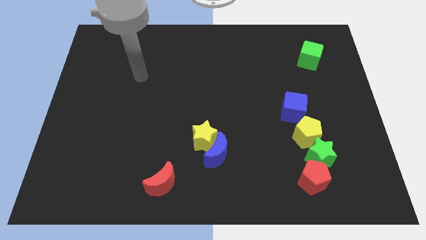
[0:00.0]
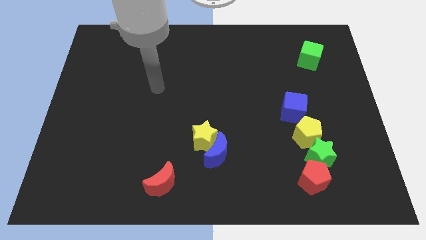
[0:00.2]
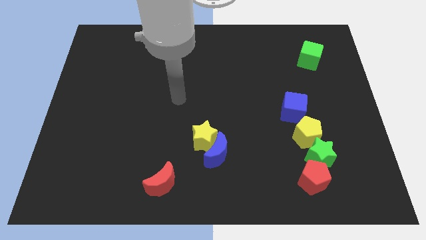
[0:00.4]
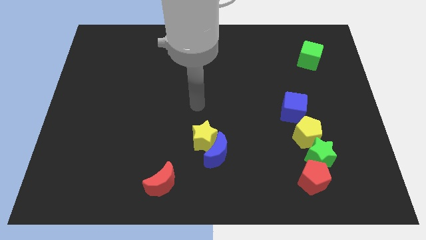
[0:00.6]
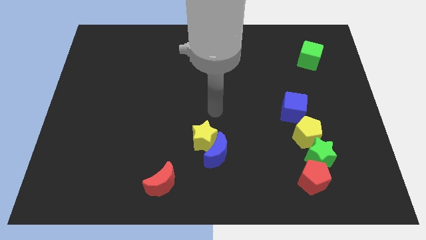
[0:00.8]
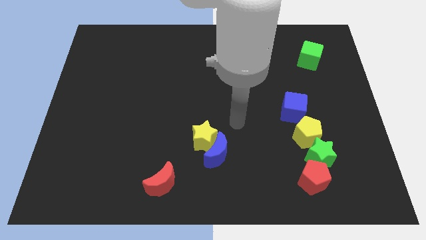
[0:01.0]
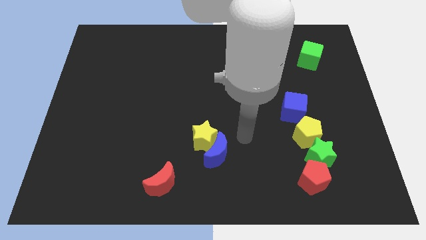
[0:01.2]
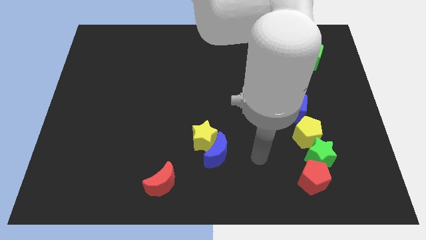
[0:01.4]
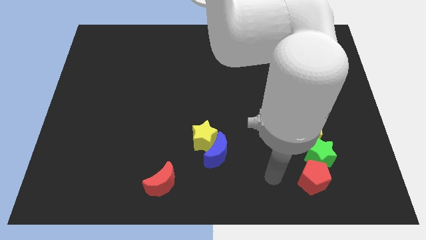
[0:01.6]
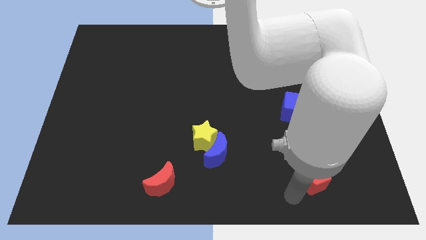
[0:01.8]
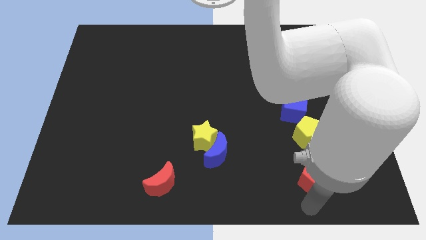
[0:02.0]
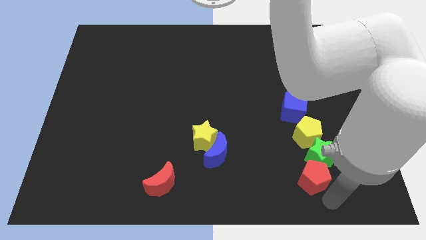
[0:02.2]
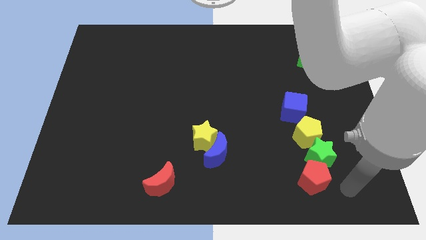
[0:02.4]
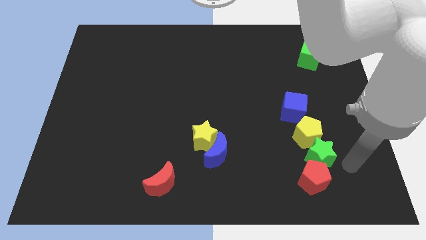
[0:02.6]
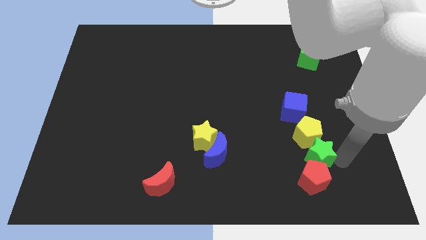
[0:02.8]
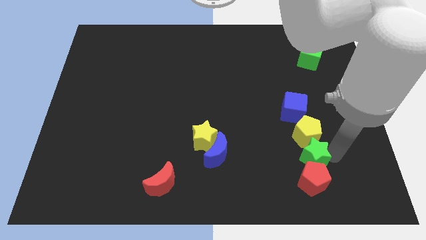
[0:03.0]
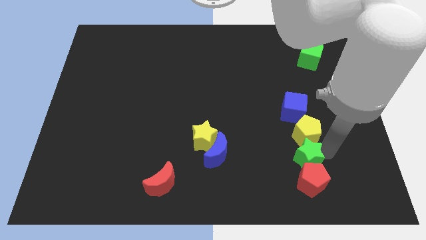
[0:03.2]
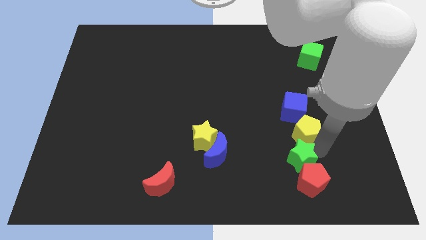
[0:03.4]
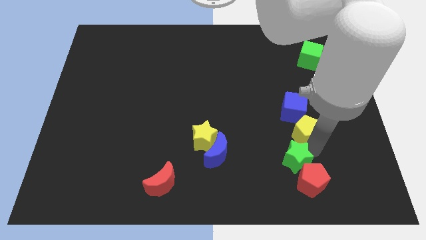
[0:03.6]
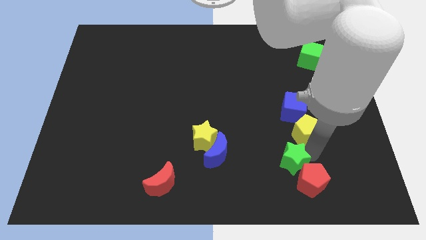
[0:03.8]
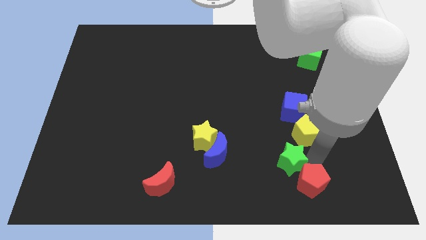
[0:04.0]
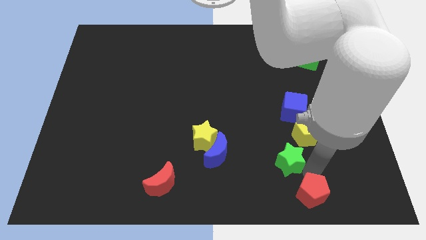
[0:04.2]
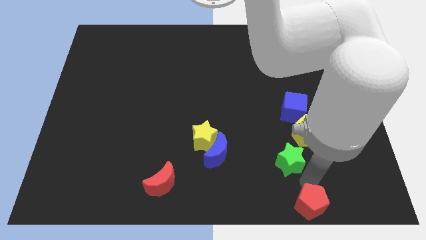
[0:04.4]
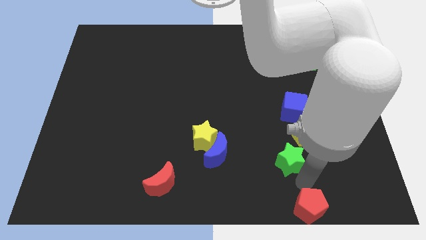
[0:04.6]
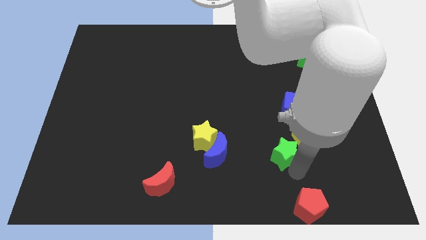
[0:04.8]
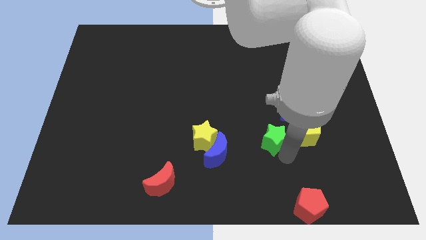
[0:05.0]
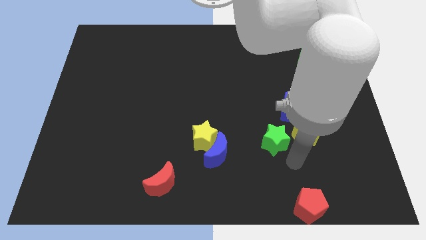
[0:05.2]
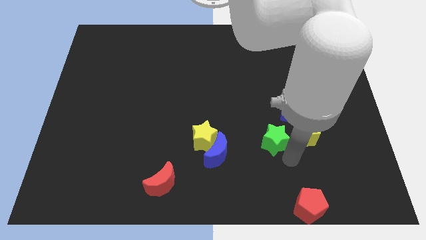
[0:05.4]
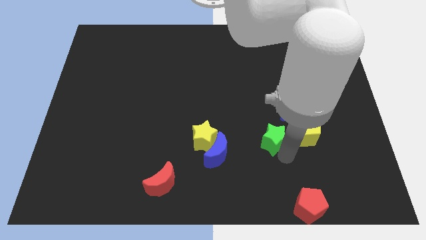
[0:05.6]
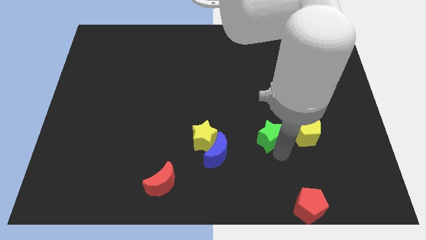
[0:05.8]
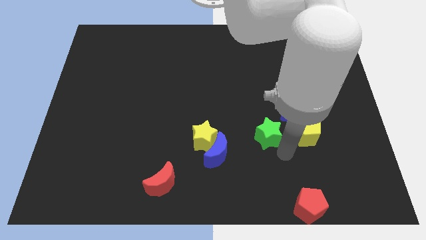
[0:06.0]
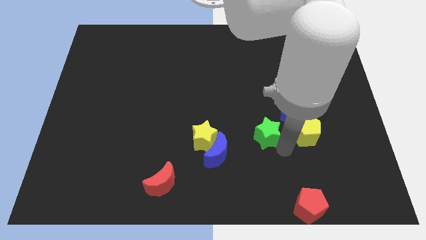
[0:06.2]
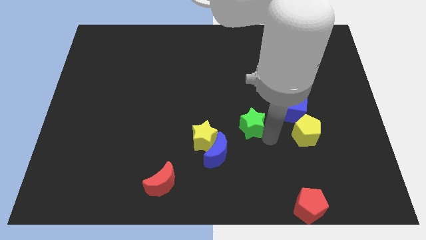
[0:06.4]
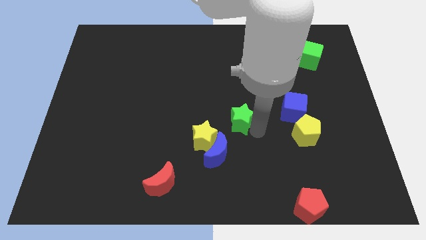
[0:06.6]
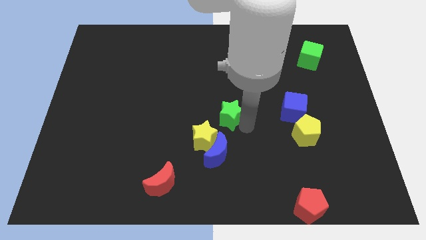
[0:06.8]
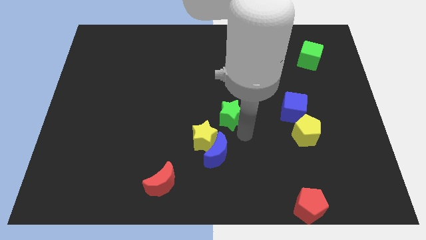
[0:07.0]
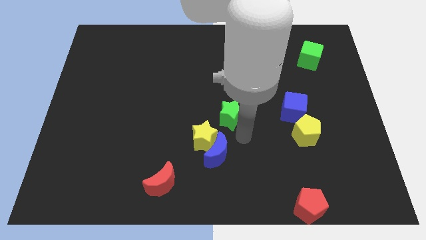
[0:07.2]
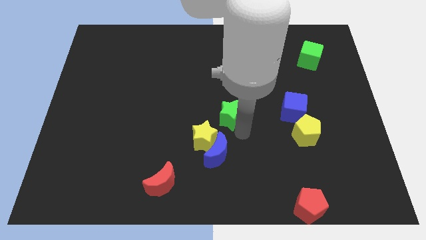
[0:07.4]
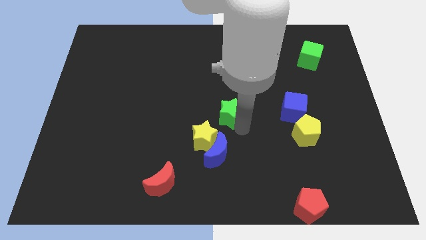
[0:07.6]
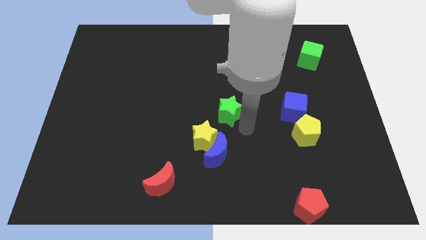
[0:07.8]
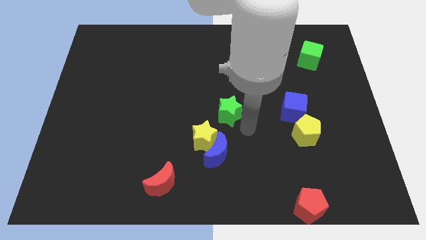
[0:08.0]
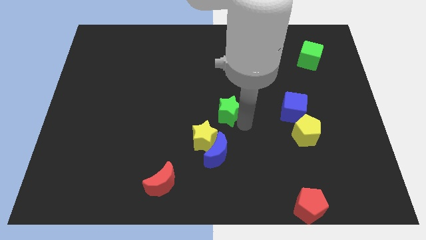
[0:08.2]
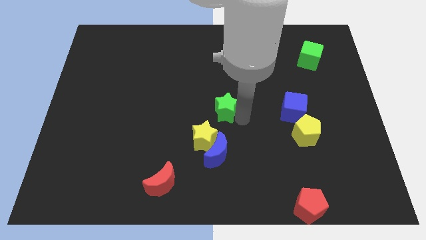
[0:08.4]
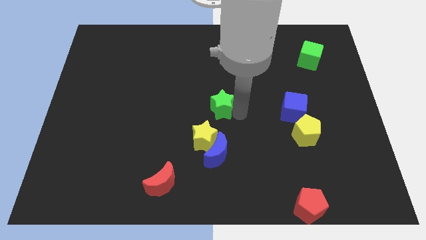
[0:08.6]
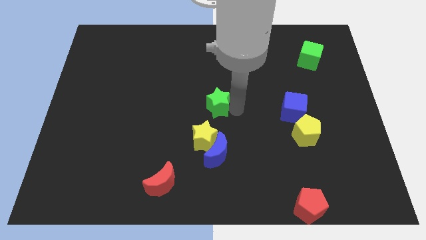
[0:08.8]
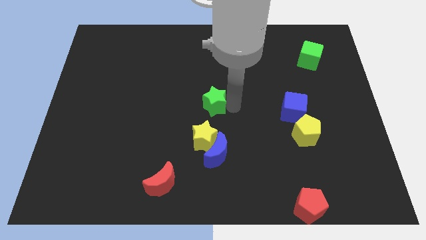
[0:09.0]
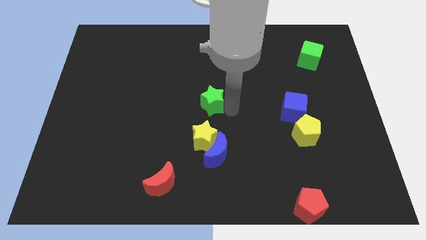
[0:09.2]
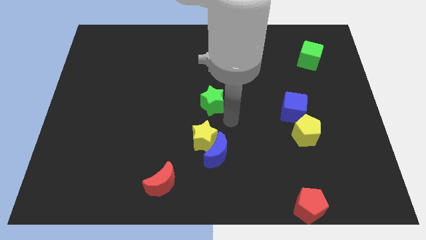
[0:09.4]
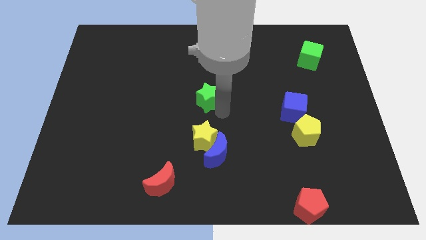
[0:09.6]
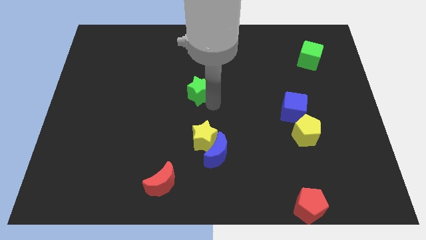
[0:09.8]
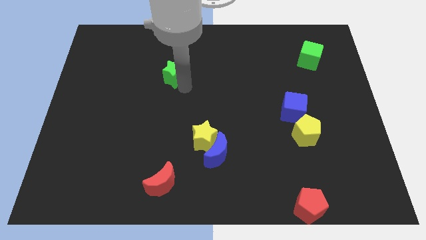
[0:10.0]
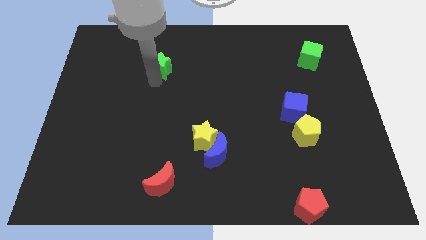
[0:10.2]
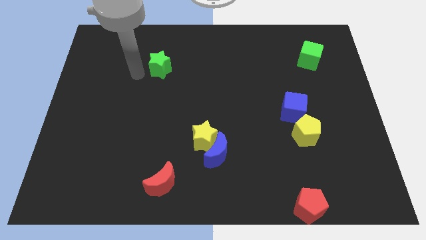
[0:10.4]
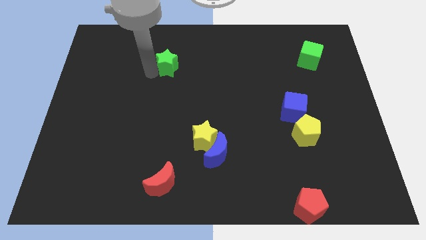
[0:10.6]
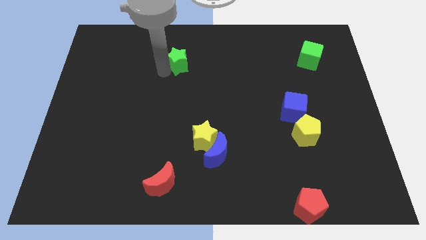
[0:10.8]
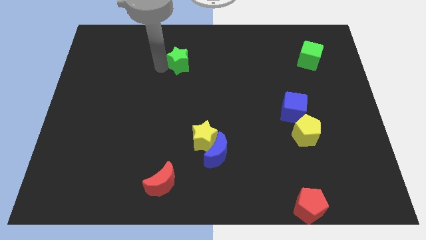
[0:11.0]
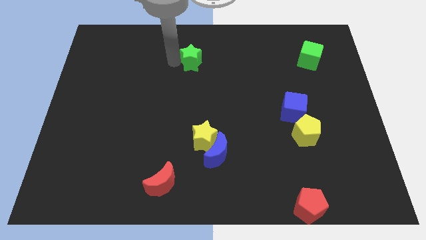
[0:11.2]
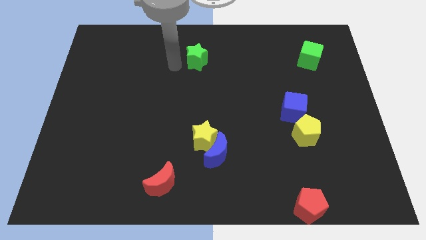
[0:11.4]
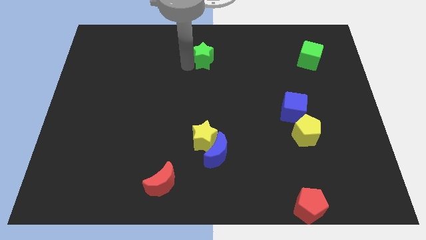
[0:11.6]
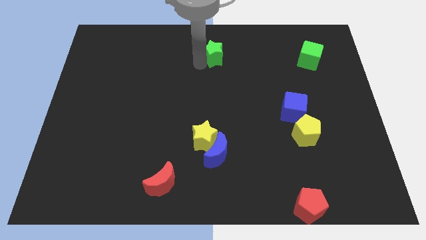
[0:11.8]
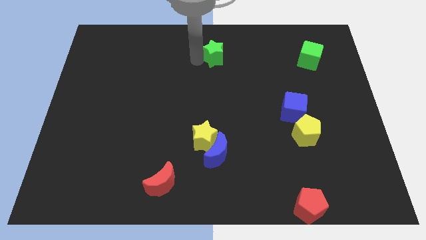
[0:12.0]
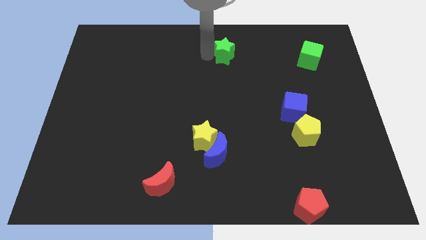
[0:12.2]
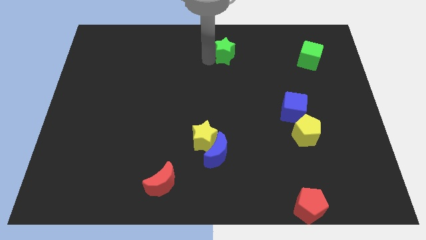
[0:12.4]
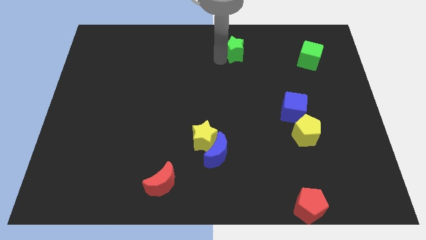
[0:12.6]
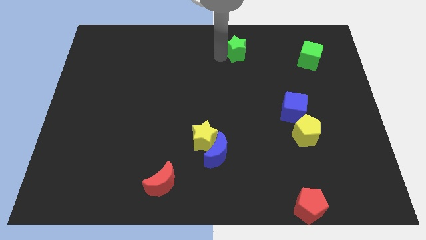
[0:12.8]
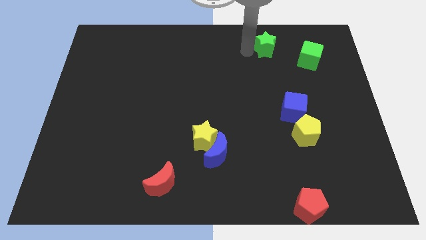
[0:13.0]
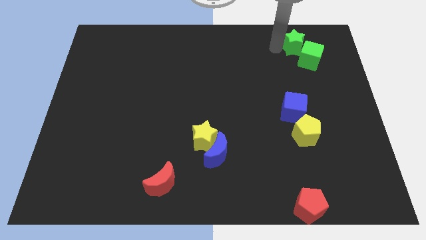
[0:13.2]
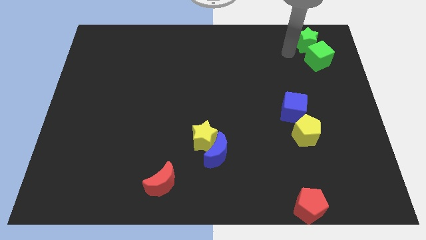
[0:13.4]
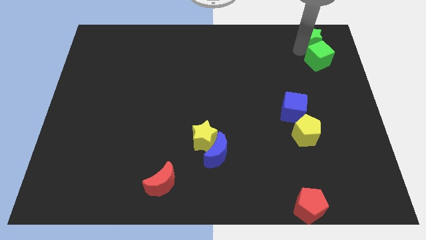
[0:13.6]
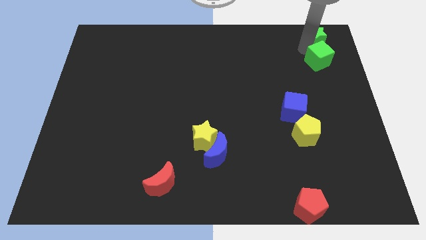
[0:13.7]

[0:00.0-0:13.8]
slide the green star to the top right of the board
